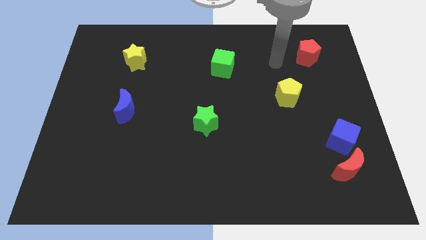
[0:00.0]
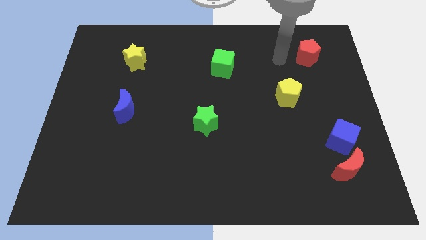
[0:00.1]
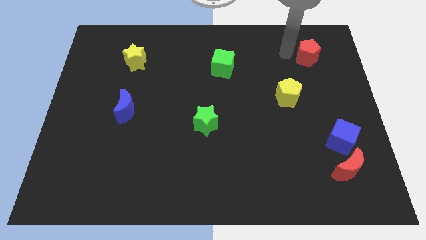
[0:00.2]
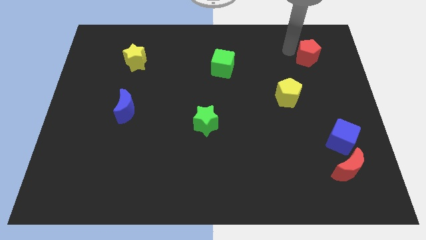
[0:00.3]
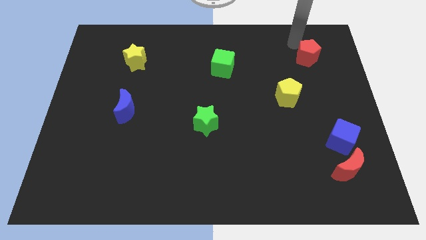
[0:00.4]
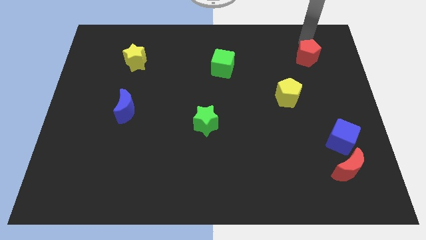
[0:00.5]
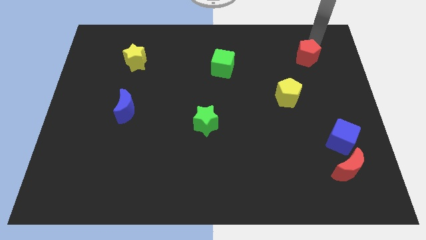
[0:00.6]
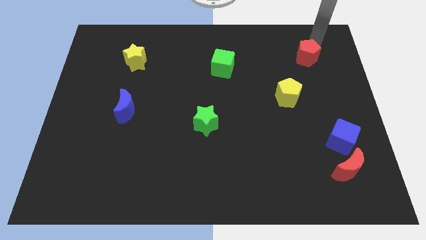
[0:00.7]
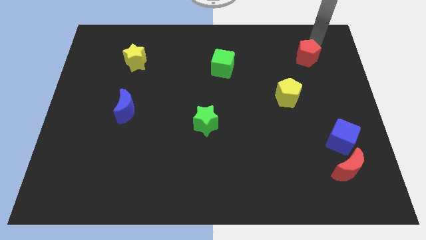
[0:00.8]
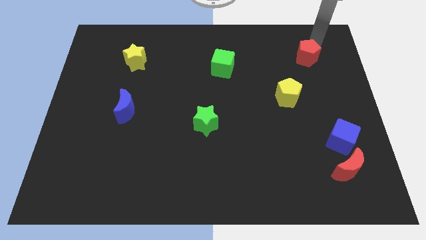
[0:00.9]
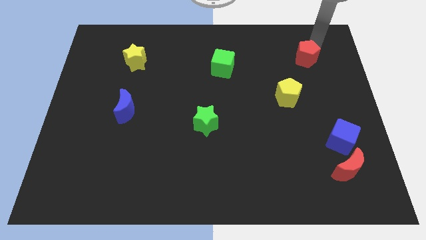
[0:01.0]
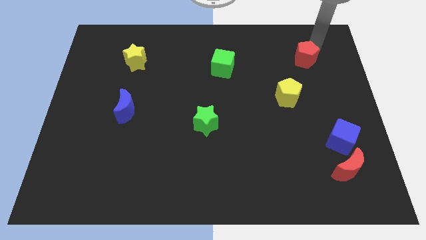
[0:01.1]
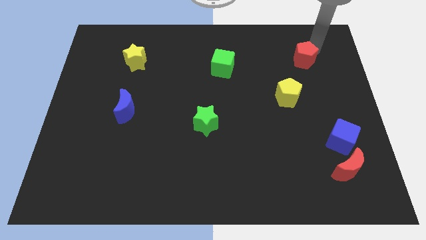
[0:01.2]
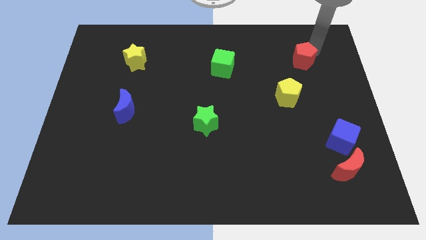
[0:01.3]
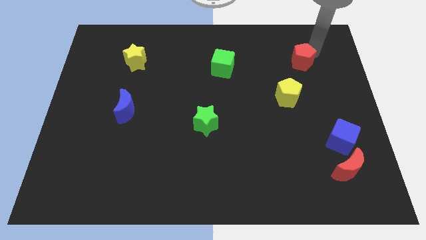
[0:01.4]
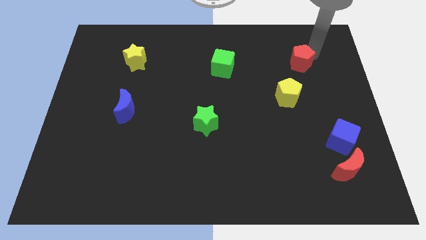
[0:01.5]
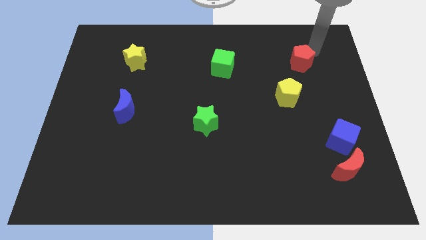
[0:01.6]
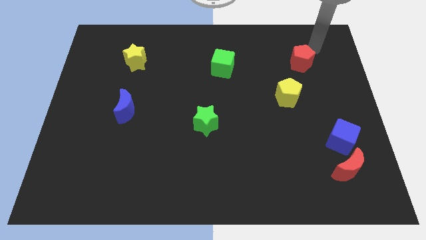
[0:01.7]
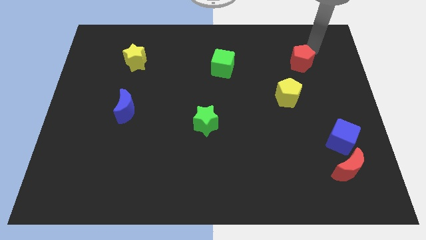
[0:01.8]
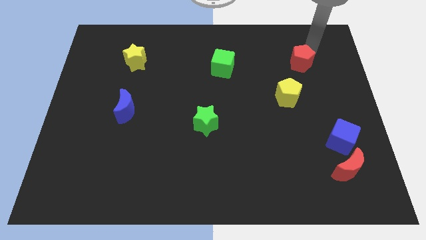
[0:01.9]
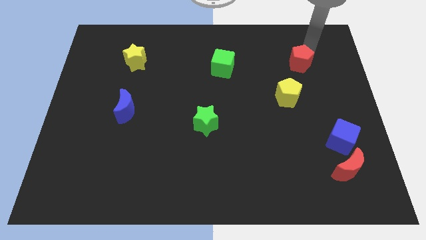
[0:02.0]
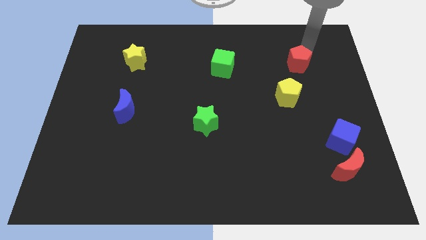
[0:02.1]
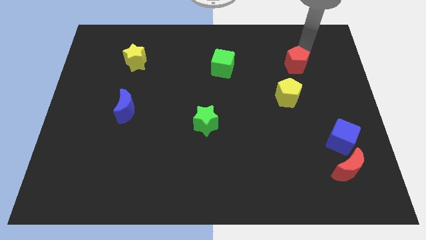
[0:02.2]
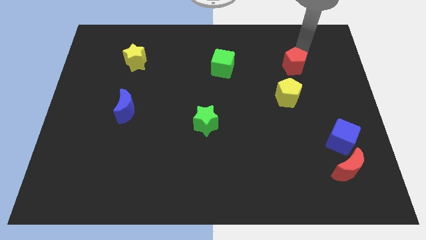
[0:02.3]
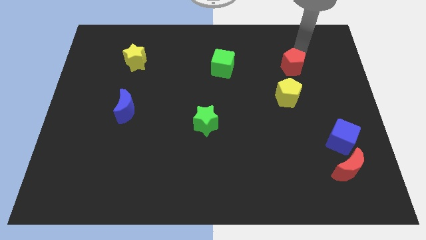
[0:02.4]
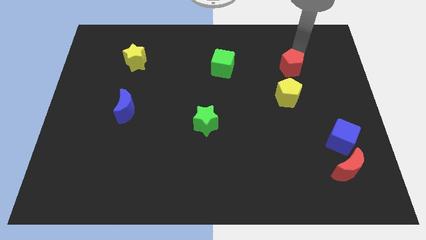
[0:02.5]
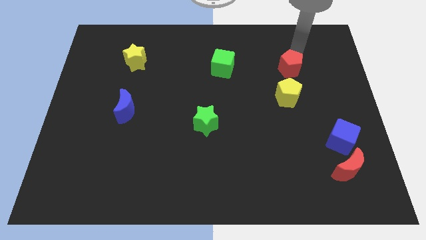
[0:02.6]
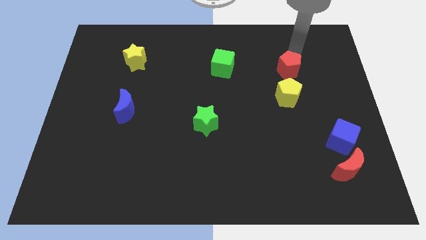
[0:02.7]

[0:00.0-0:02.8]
push the red pentagon down and then left a little

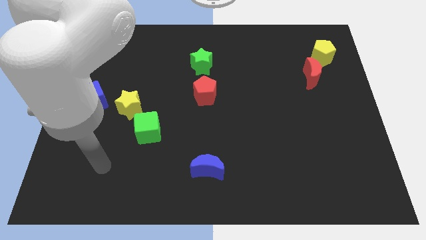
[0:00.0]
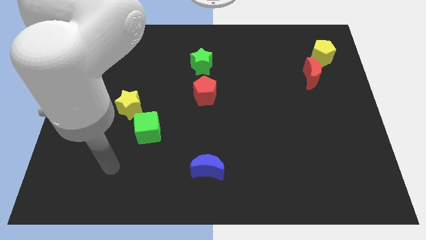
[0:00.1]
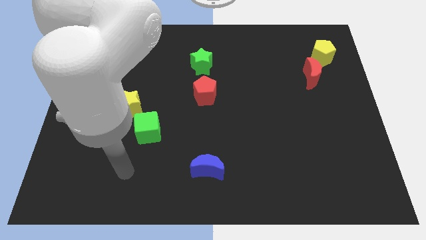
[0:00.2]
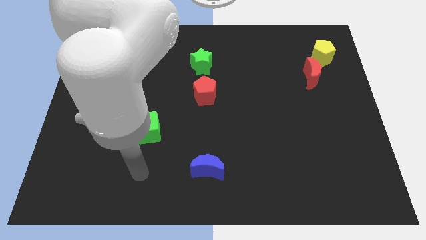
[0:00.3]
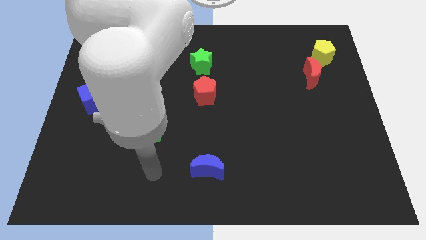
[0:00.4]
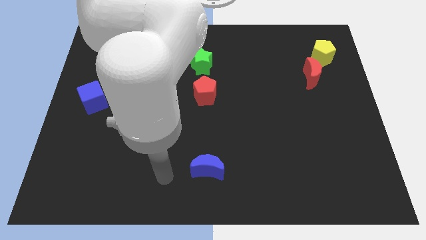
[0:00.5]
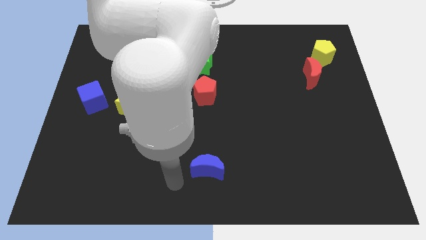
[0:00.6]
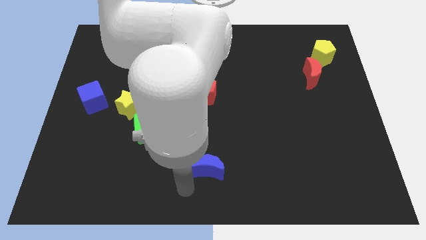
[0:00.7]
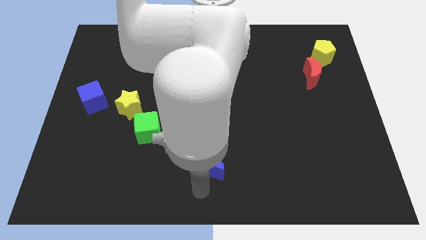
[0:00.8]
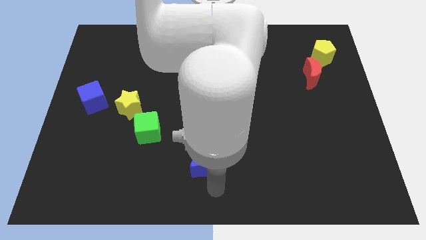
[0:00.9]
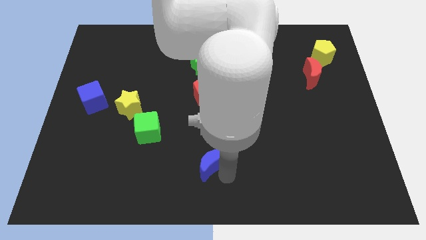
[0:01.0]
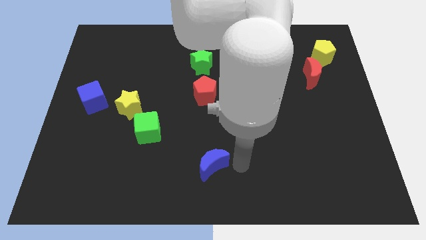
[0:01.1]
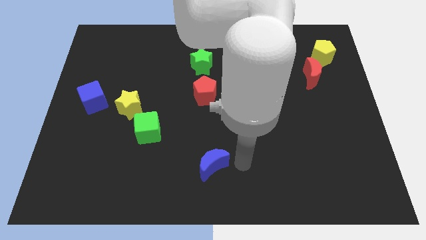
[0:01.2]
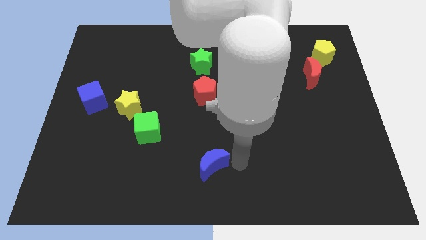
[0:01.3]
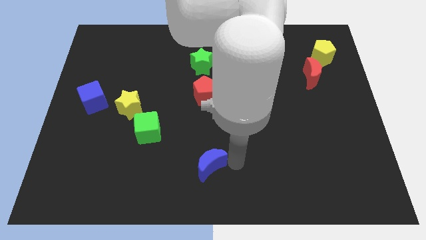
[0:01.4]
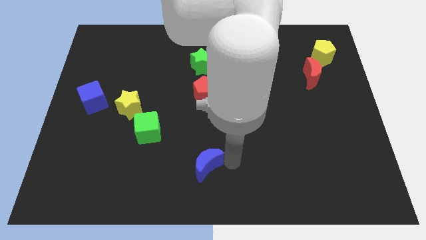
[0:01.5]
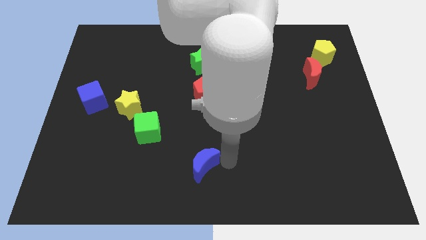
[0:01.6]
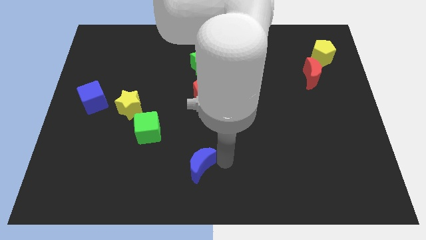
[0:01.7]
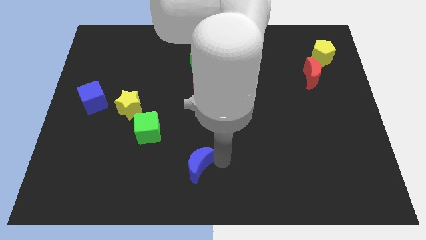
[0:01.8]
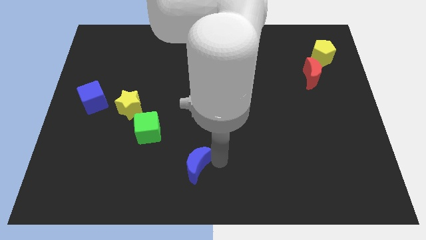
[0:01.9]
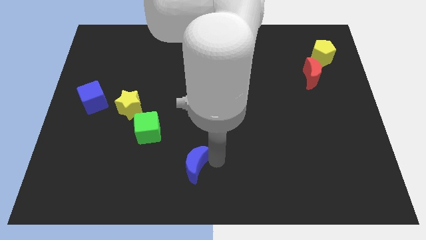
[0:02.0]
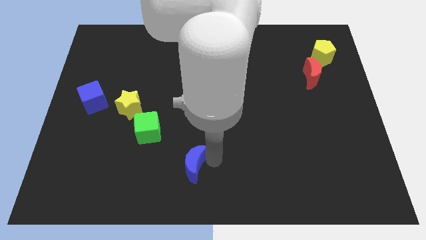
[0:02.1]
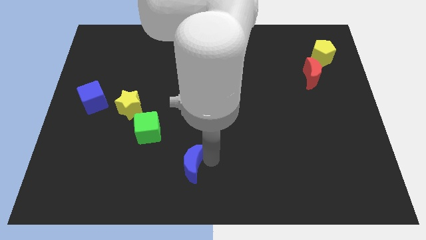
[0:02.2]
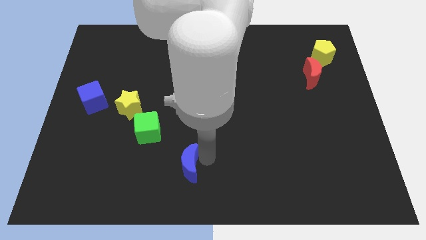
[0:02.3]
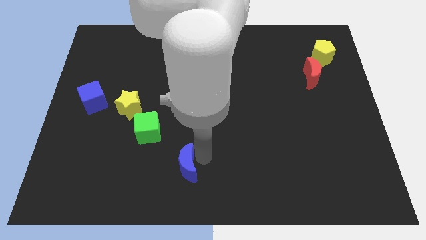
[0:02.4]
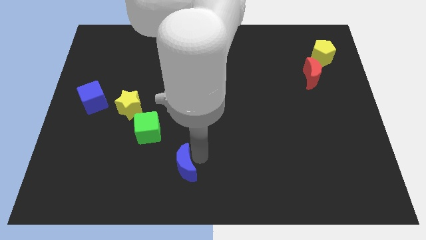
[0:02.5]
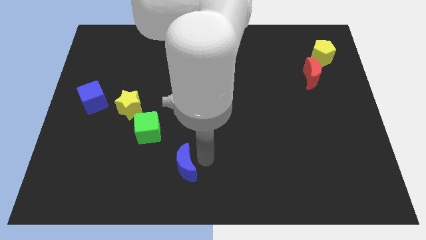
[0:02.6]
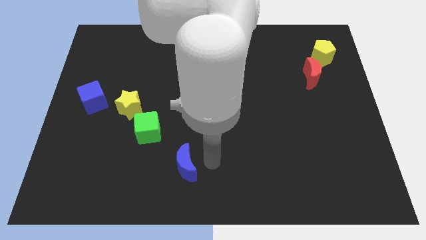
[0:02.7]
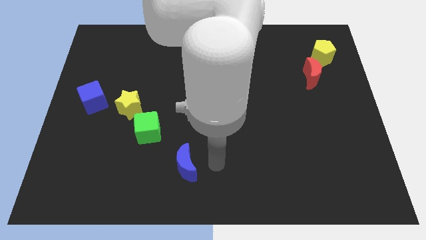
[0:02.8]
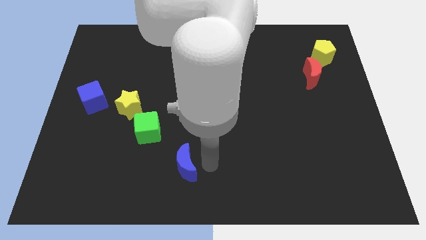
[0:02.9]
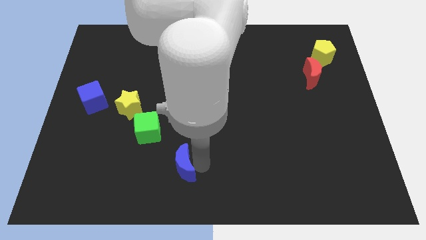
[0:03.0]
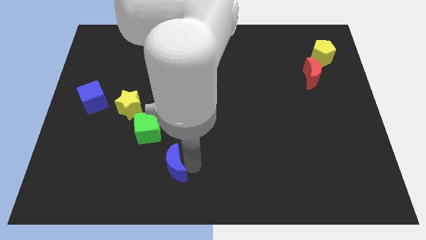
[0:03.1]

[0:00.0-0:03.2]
move the blue moon slightly to the left

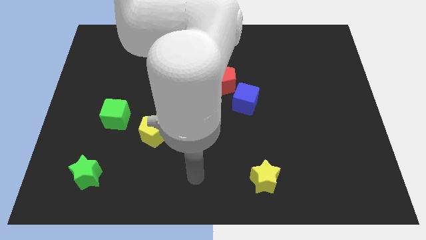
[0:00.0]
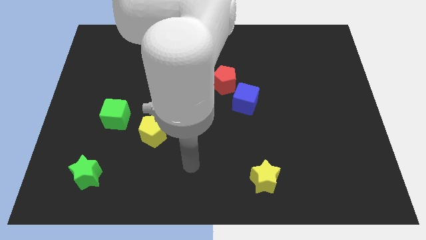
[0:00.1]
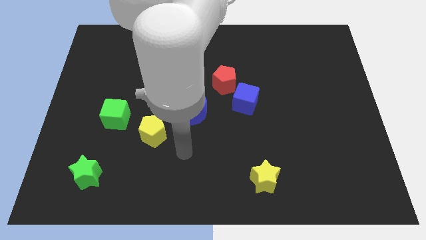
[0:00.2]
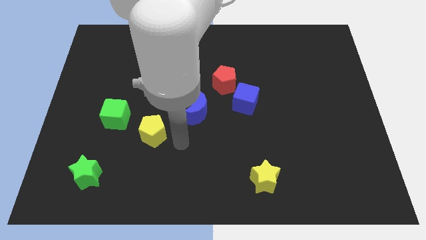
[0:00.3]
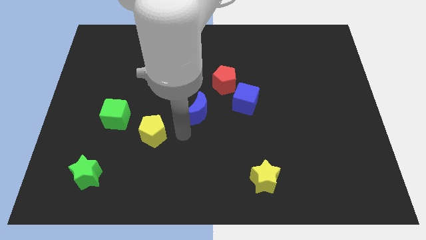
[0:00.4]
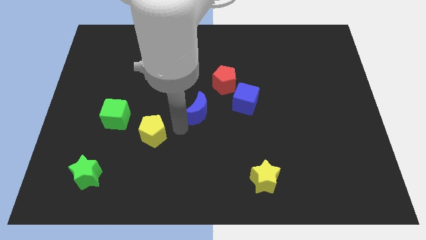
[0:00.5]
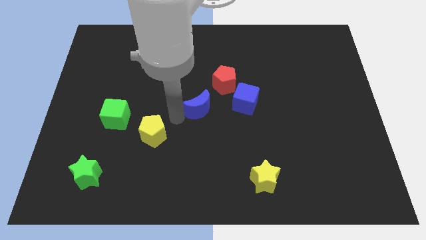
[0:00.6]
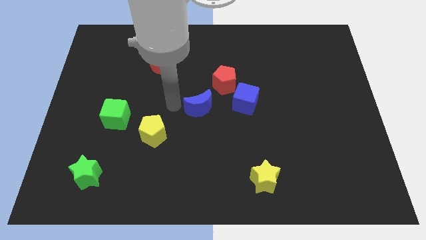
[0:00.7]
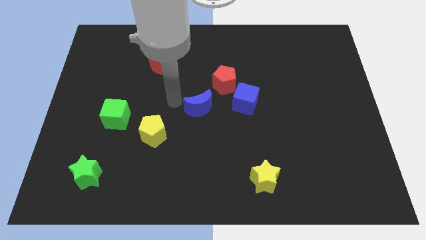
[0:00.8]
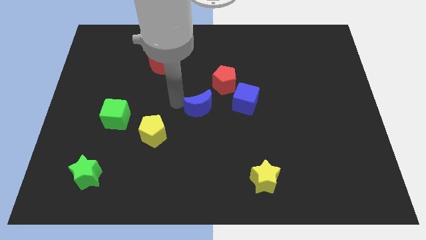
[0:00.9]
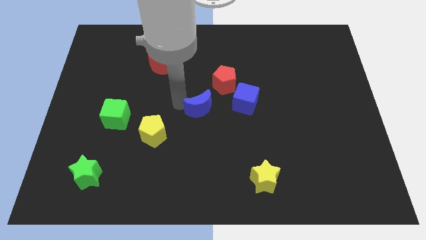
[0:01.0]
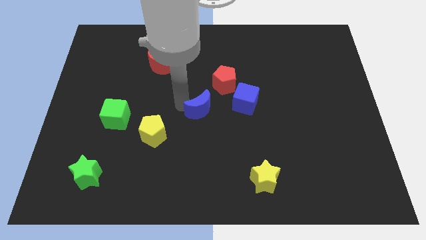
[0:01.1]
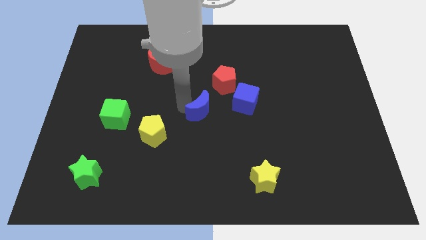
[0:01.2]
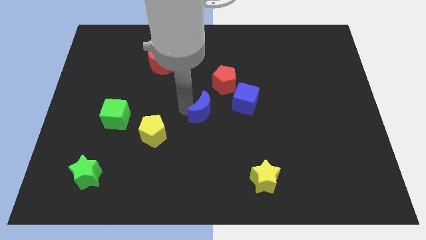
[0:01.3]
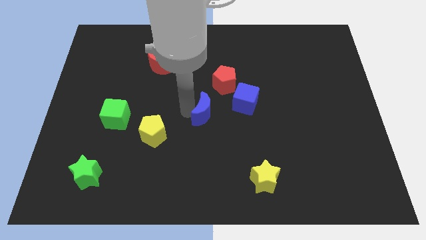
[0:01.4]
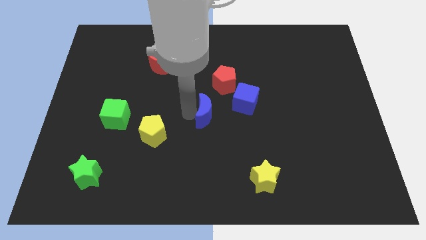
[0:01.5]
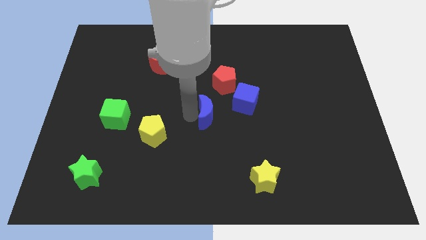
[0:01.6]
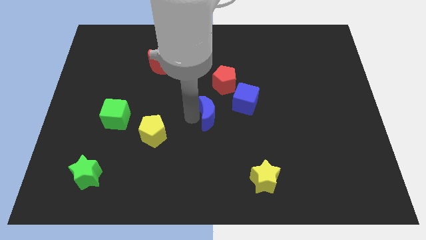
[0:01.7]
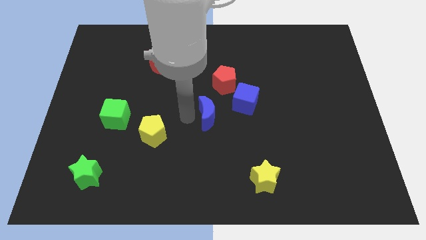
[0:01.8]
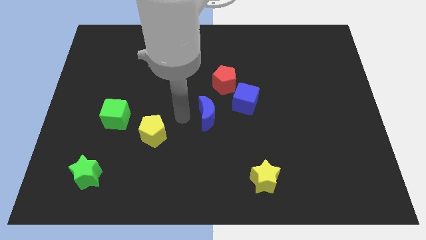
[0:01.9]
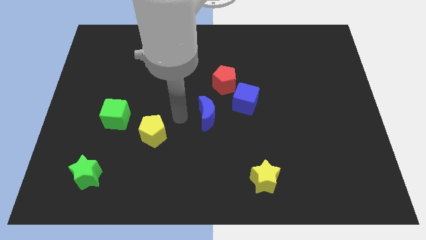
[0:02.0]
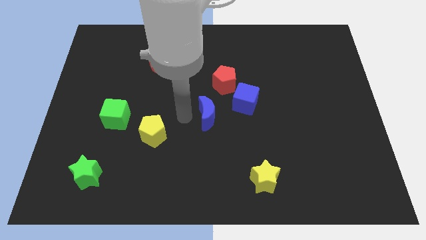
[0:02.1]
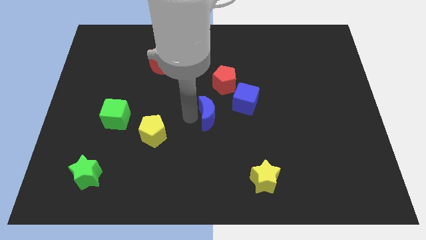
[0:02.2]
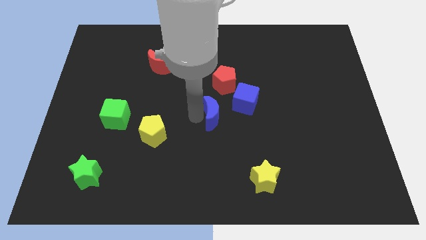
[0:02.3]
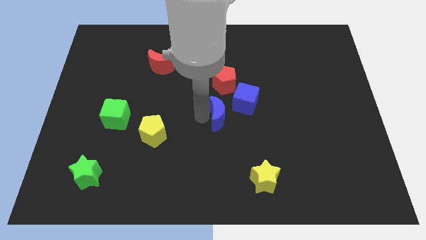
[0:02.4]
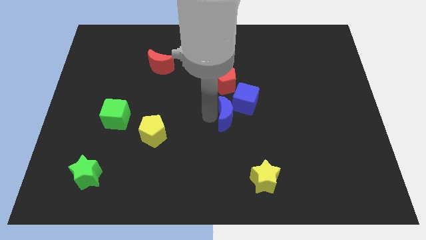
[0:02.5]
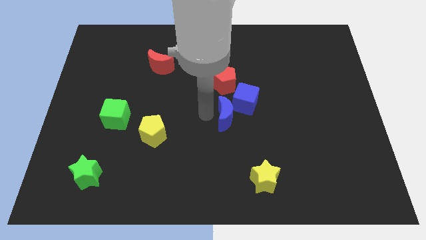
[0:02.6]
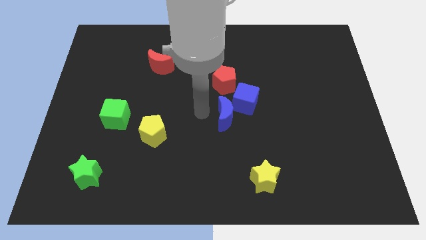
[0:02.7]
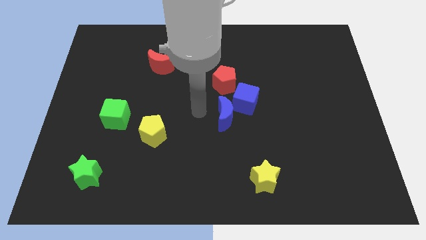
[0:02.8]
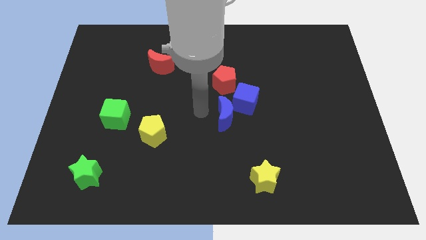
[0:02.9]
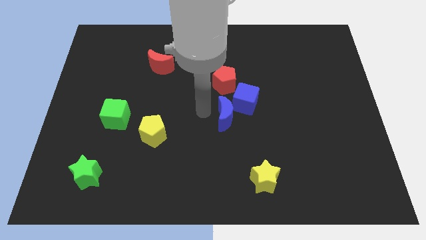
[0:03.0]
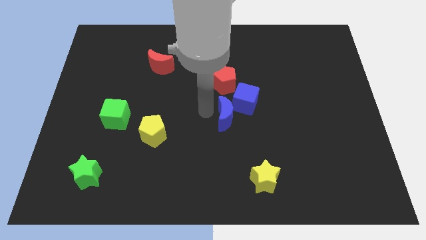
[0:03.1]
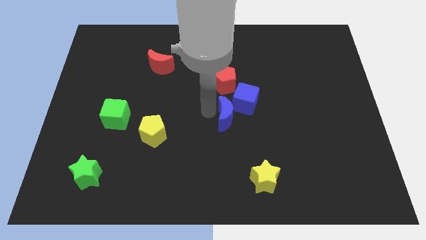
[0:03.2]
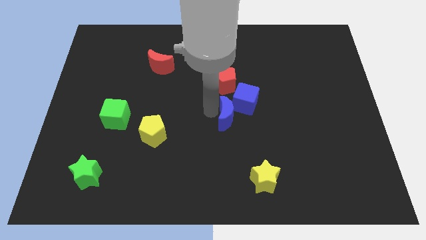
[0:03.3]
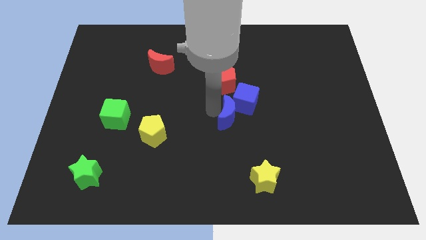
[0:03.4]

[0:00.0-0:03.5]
push the blue moon right somewhat
